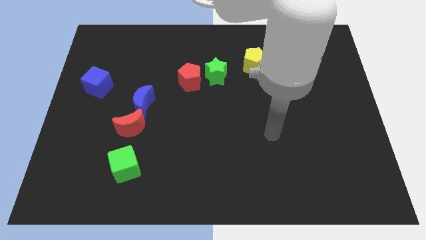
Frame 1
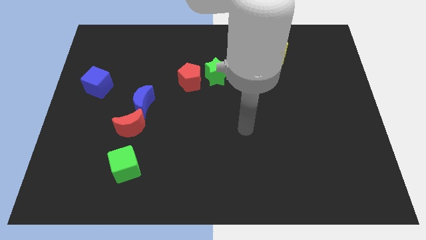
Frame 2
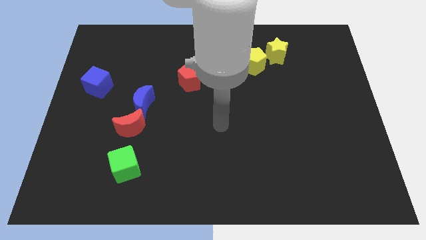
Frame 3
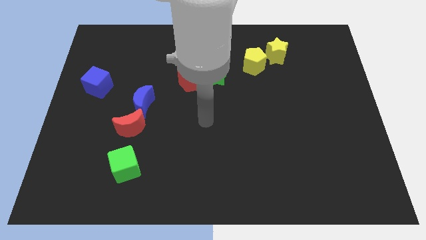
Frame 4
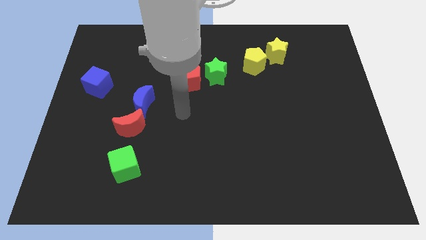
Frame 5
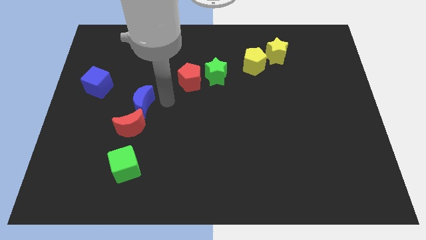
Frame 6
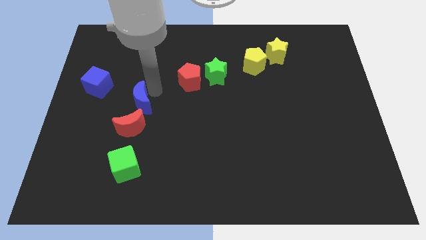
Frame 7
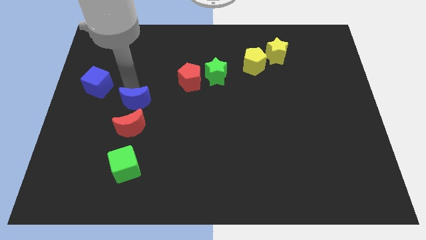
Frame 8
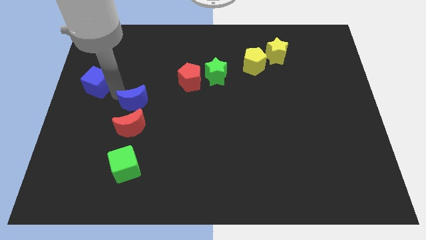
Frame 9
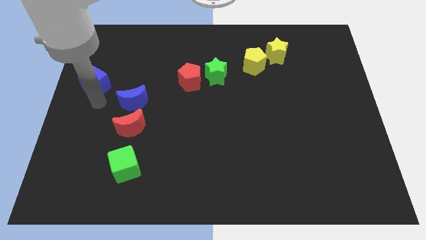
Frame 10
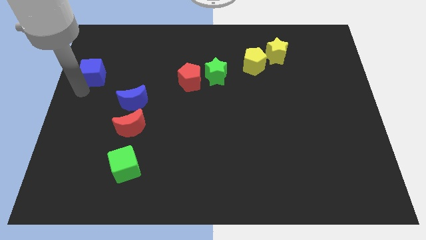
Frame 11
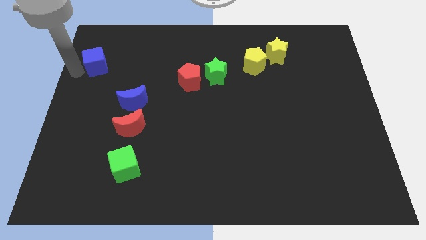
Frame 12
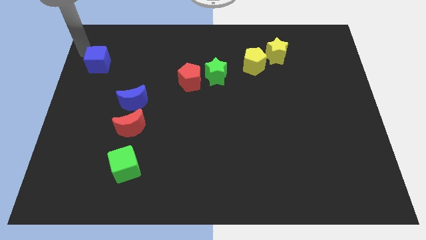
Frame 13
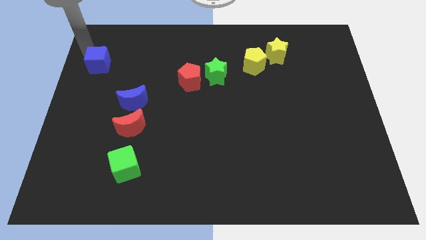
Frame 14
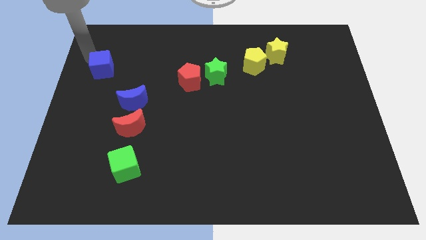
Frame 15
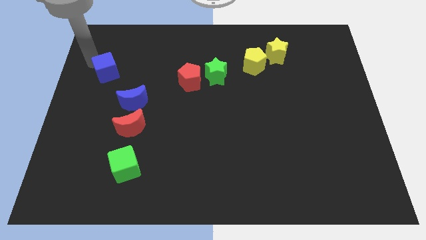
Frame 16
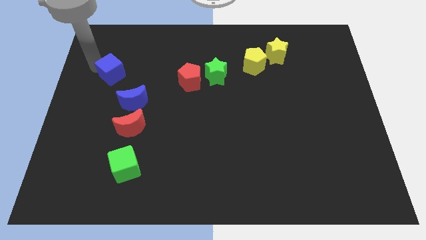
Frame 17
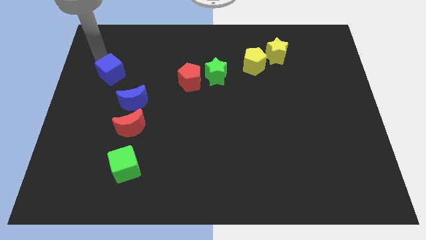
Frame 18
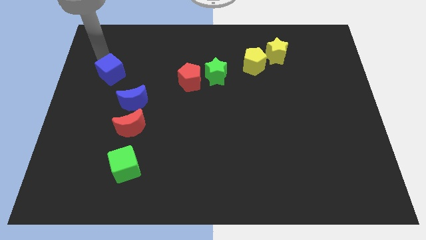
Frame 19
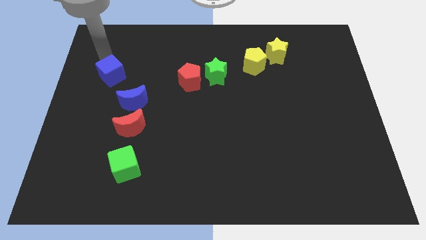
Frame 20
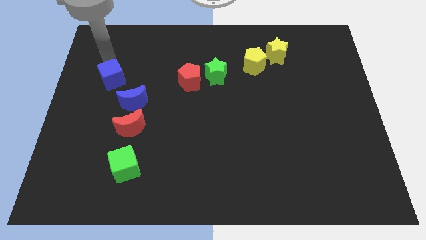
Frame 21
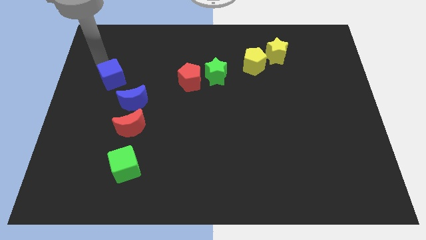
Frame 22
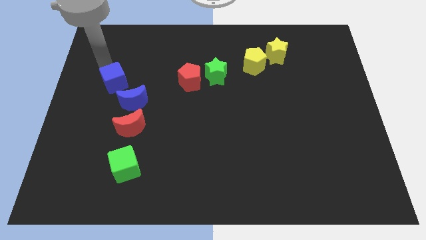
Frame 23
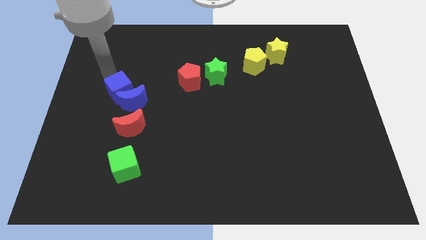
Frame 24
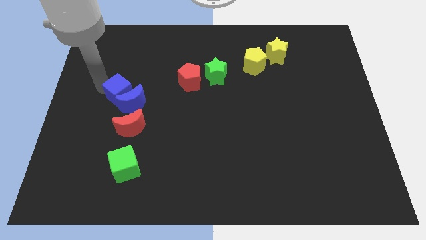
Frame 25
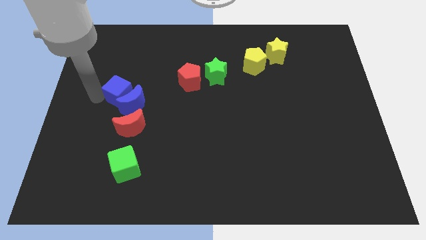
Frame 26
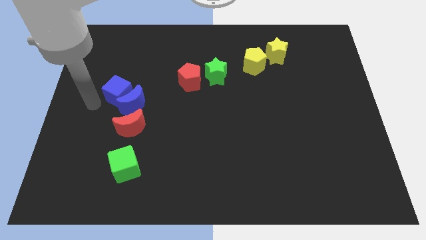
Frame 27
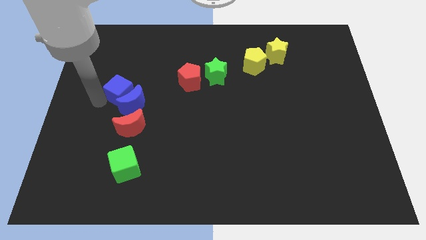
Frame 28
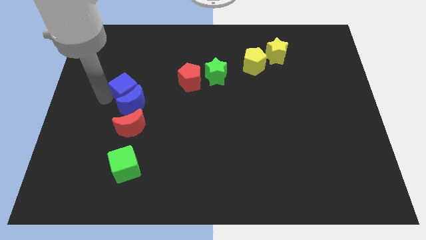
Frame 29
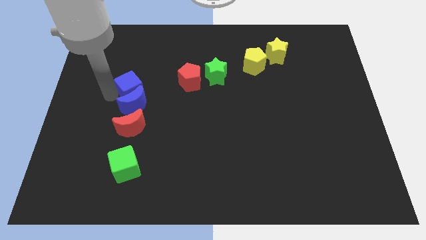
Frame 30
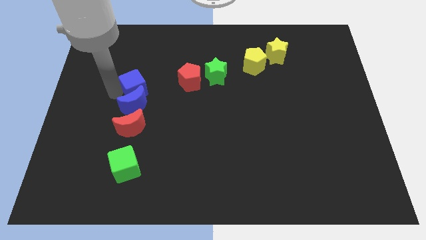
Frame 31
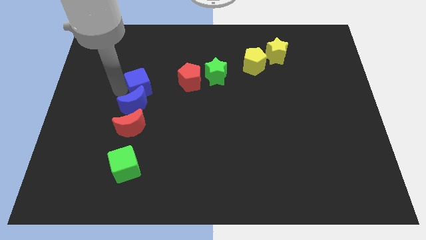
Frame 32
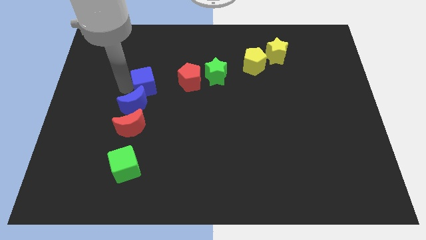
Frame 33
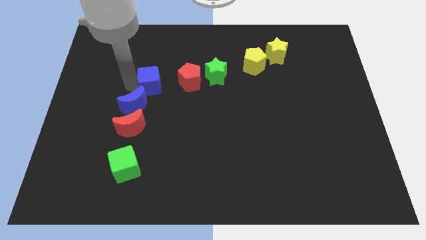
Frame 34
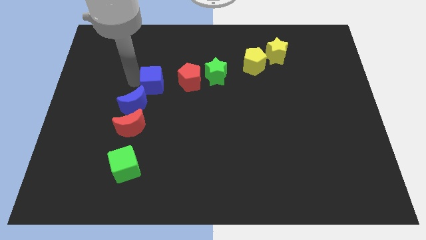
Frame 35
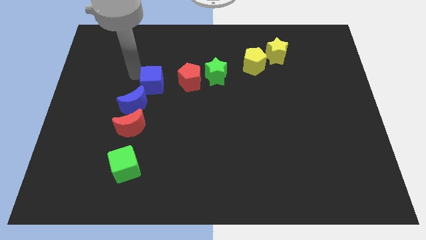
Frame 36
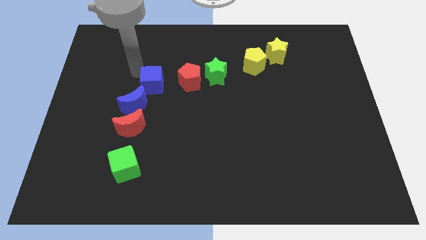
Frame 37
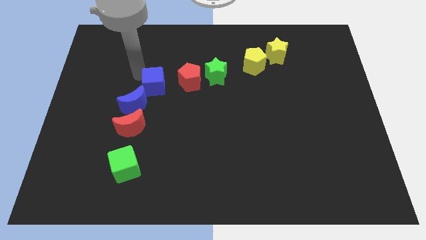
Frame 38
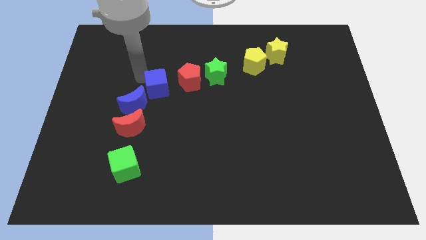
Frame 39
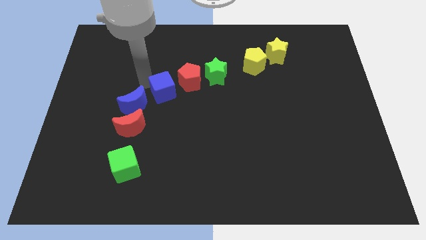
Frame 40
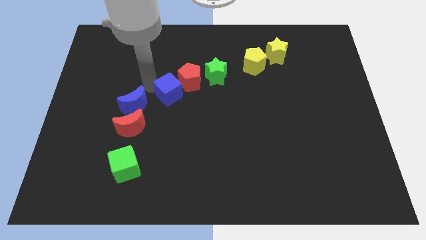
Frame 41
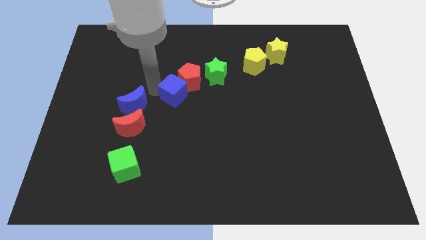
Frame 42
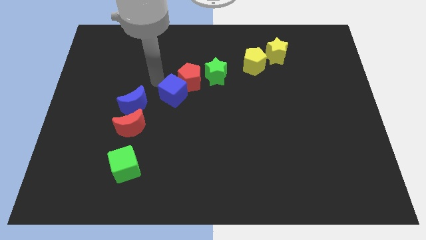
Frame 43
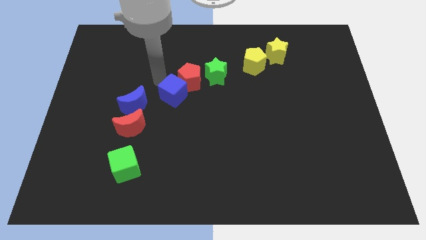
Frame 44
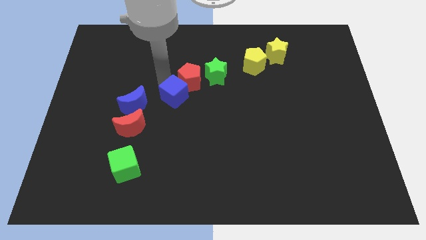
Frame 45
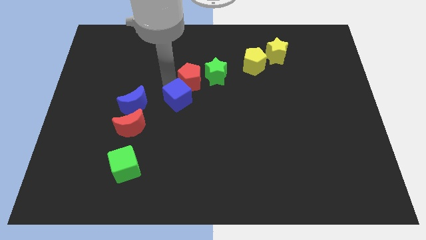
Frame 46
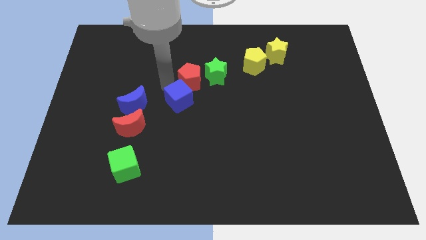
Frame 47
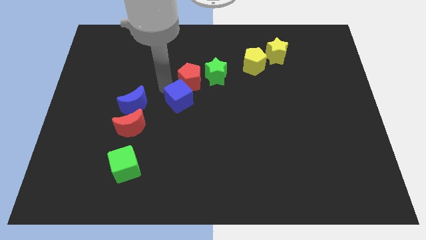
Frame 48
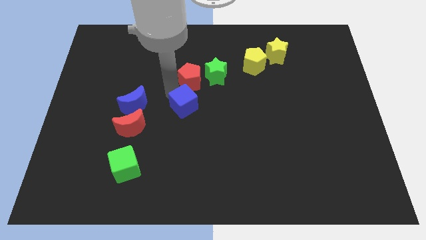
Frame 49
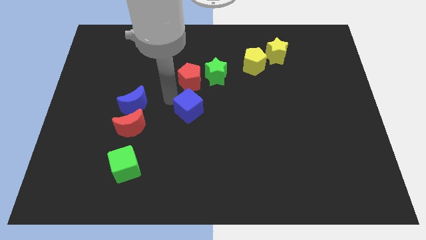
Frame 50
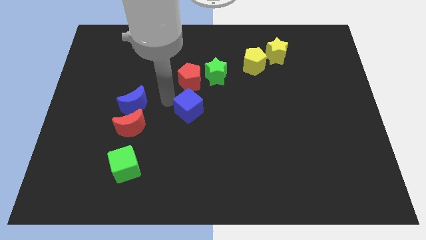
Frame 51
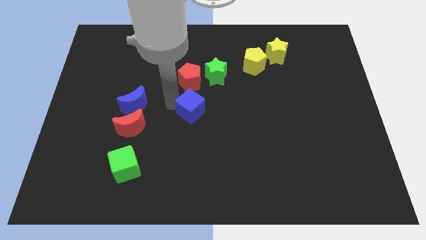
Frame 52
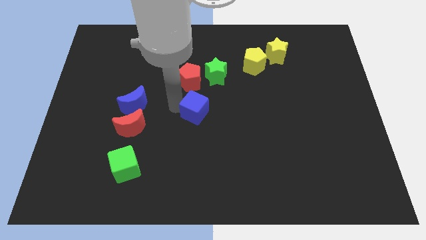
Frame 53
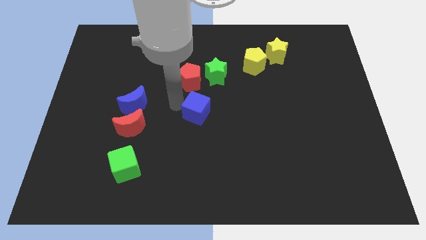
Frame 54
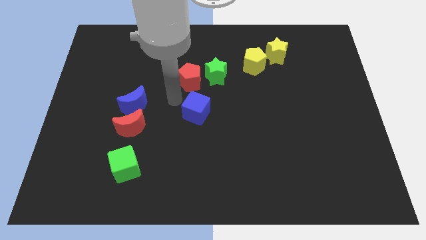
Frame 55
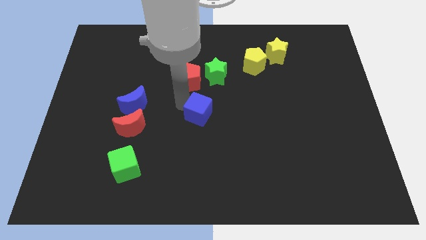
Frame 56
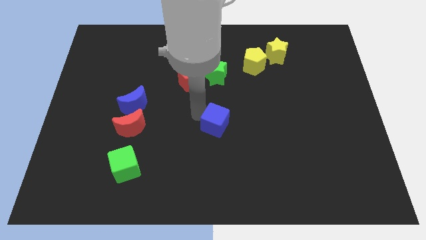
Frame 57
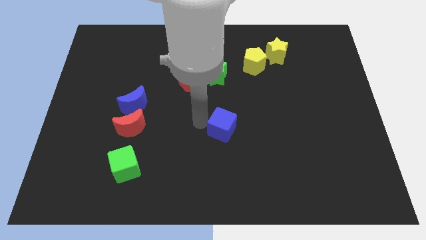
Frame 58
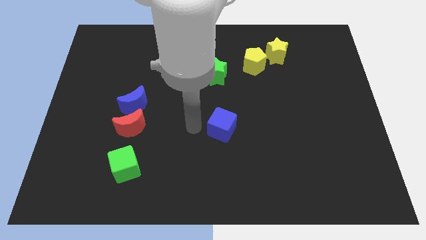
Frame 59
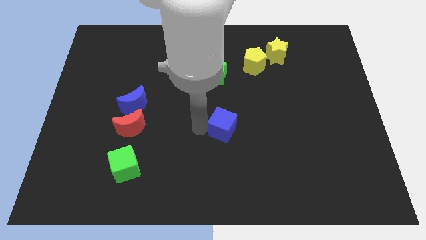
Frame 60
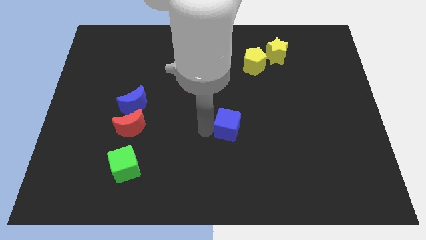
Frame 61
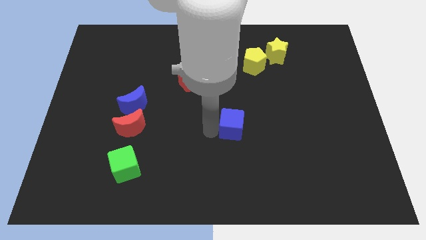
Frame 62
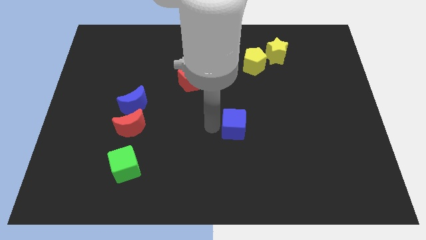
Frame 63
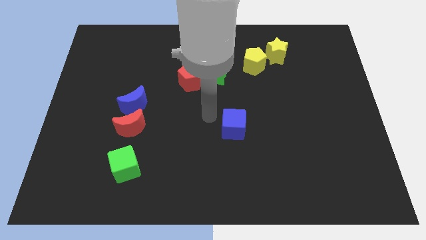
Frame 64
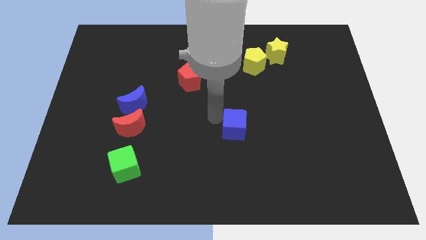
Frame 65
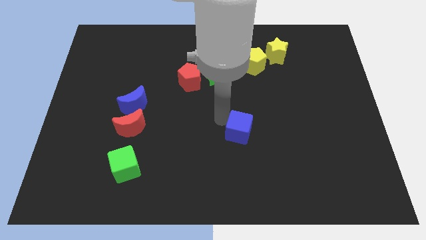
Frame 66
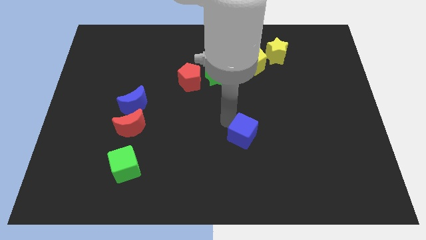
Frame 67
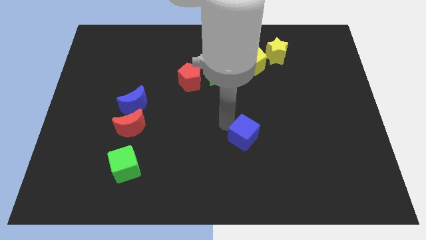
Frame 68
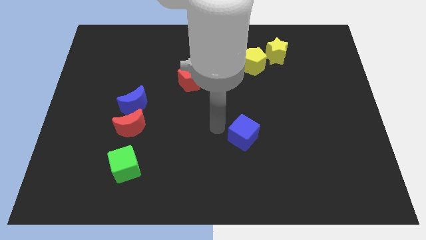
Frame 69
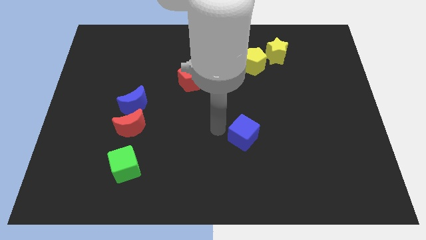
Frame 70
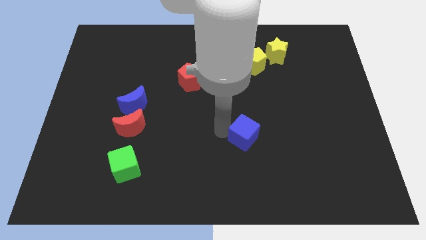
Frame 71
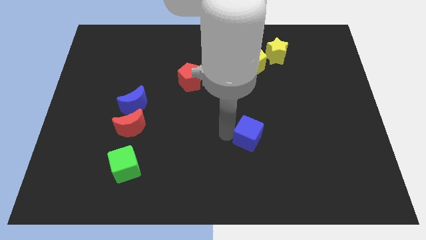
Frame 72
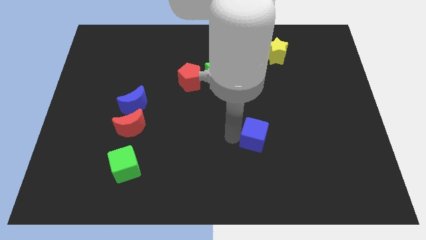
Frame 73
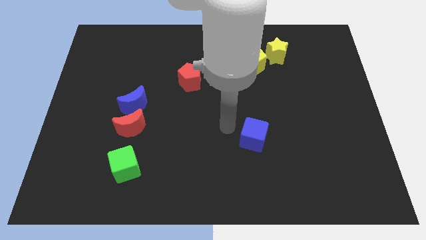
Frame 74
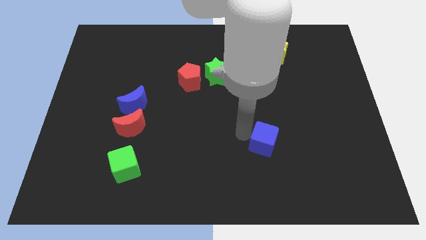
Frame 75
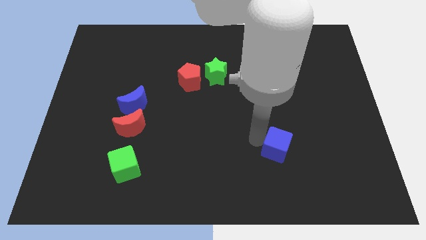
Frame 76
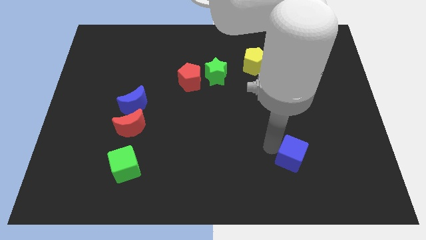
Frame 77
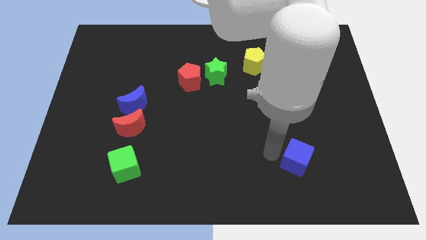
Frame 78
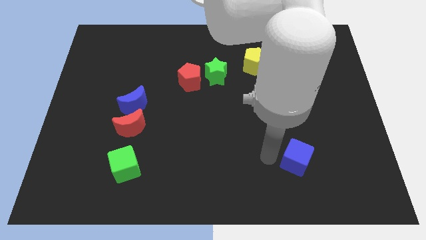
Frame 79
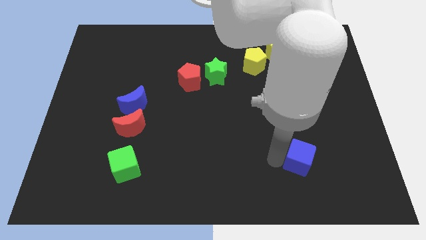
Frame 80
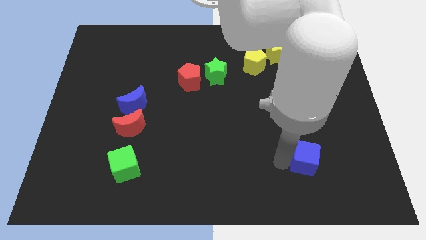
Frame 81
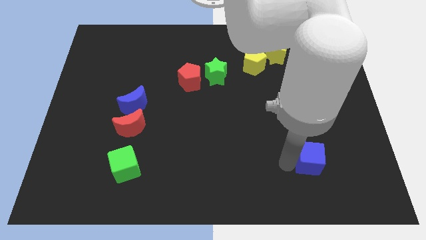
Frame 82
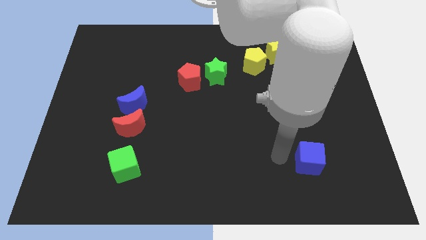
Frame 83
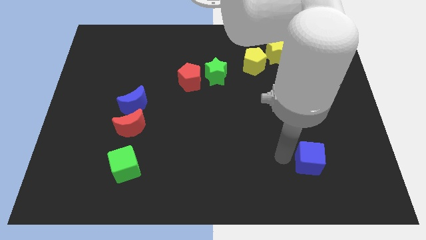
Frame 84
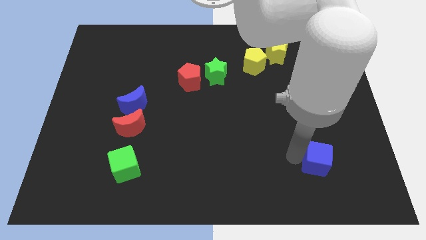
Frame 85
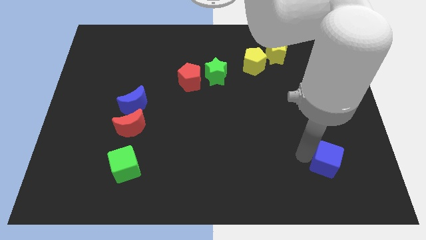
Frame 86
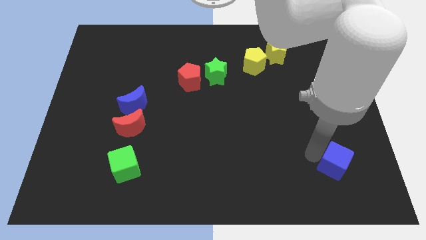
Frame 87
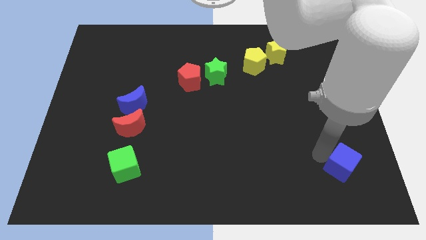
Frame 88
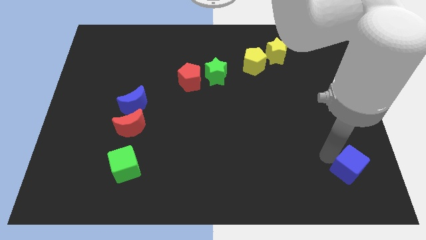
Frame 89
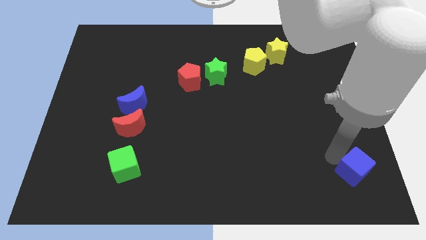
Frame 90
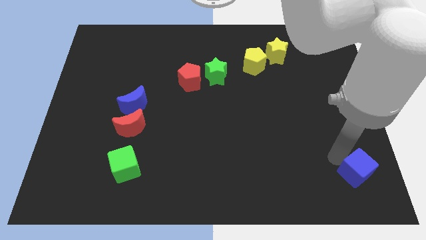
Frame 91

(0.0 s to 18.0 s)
push the blue cube to the bottom right of the board
